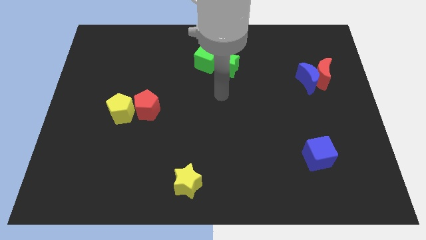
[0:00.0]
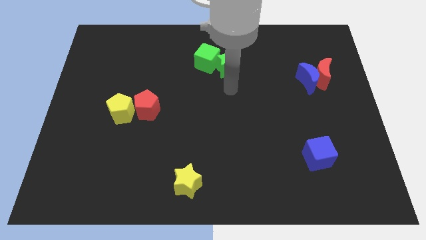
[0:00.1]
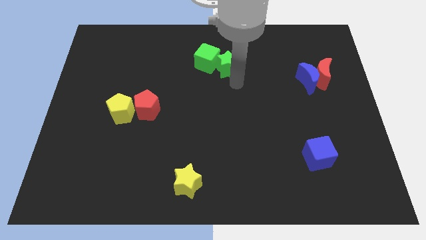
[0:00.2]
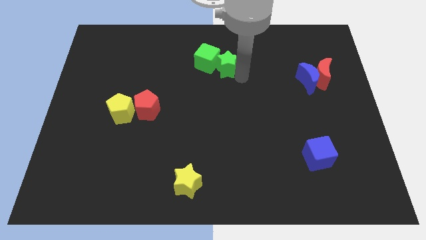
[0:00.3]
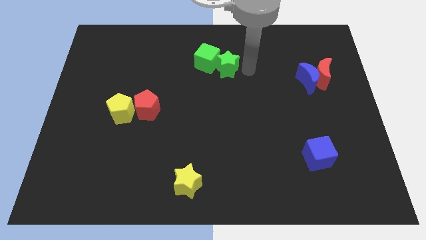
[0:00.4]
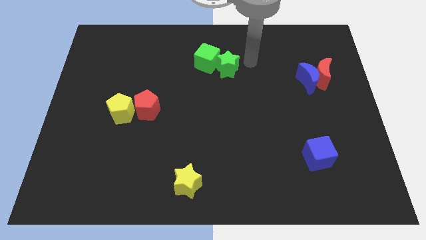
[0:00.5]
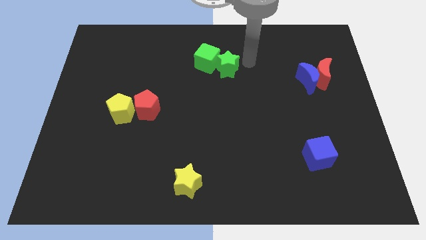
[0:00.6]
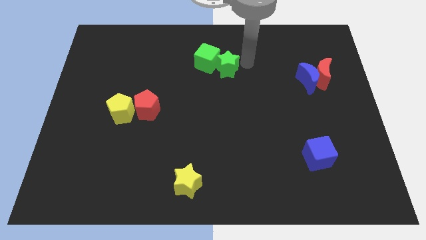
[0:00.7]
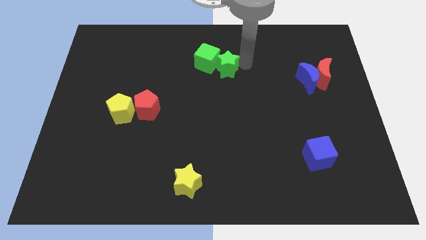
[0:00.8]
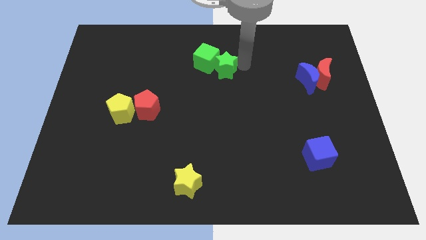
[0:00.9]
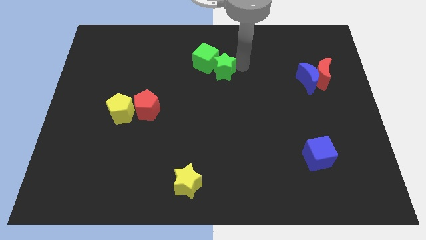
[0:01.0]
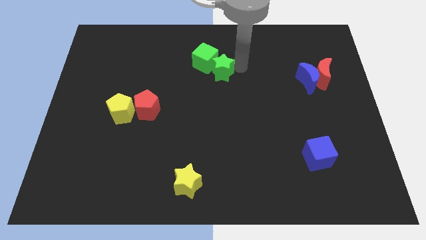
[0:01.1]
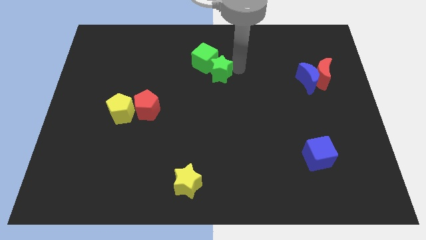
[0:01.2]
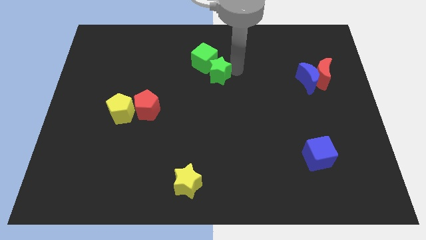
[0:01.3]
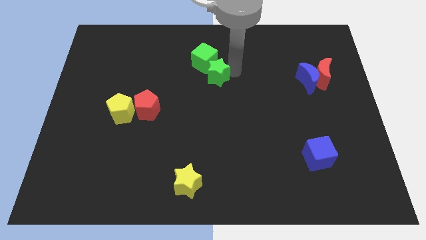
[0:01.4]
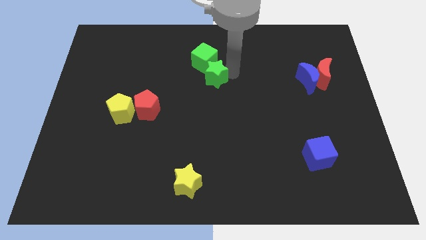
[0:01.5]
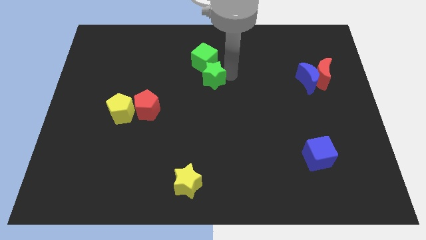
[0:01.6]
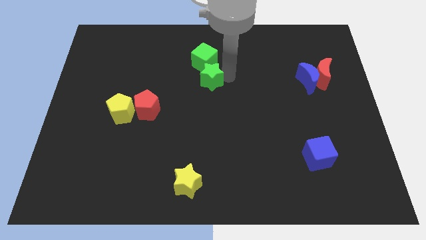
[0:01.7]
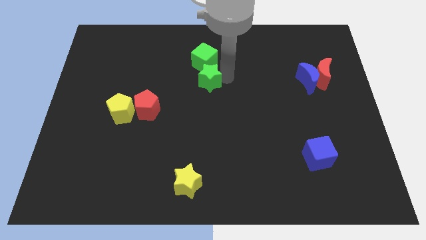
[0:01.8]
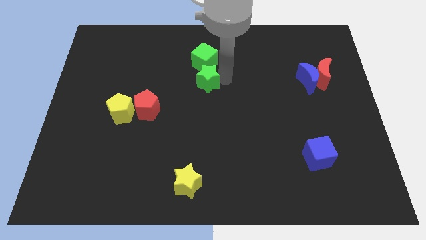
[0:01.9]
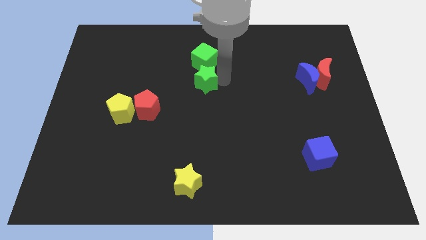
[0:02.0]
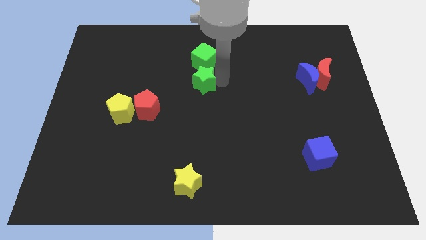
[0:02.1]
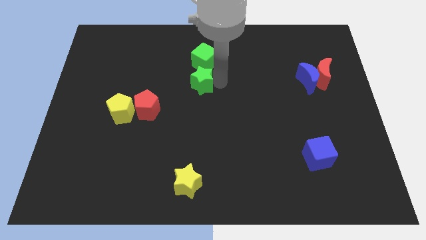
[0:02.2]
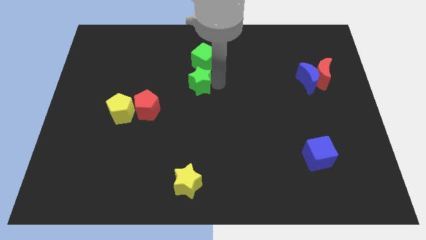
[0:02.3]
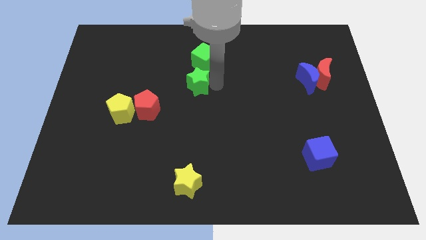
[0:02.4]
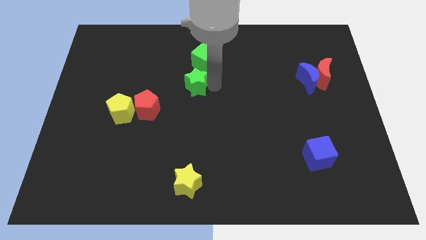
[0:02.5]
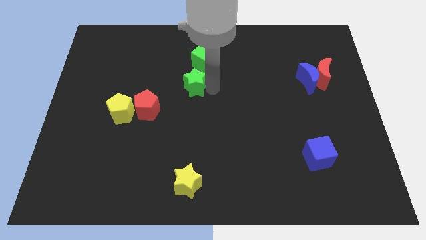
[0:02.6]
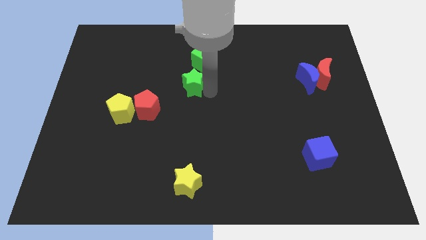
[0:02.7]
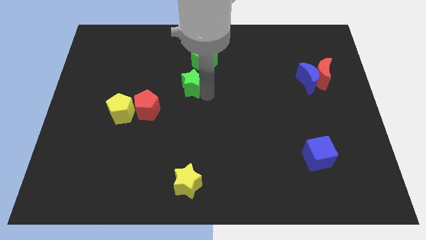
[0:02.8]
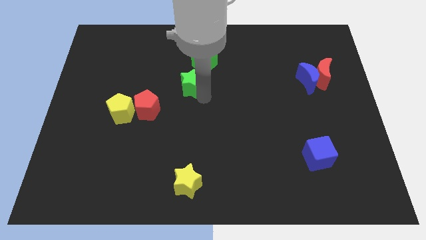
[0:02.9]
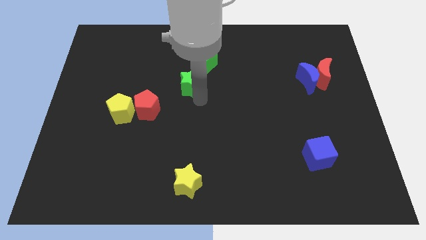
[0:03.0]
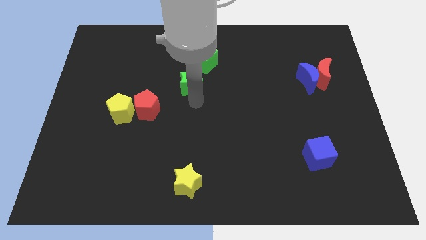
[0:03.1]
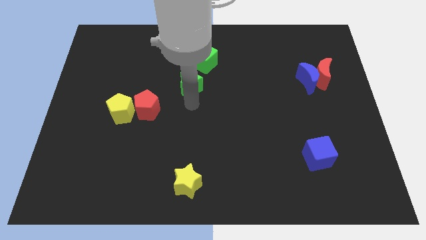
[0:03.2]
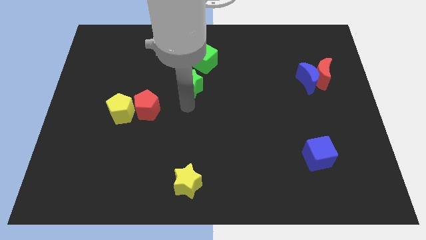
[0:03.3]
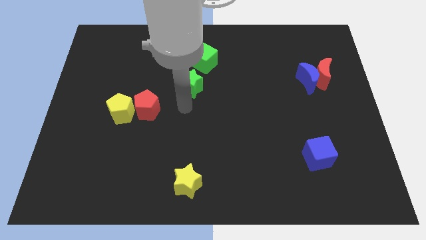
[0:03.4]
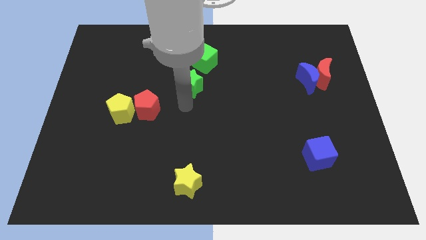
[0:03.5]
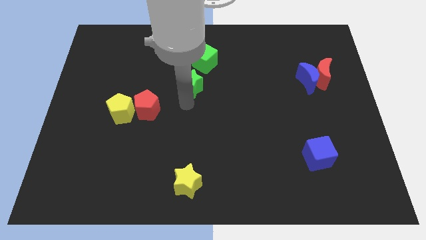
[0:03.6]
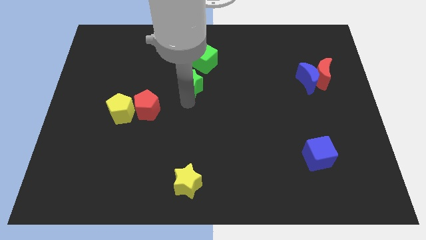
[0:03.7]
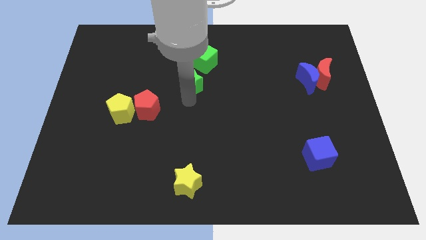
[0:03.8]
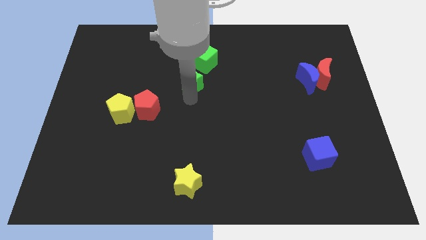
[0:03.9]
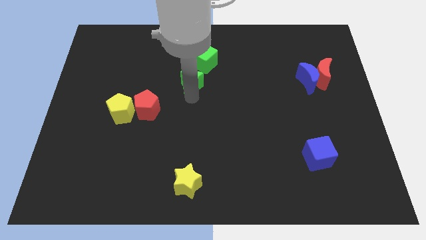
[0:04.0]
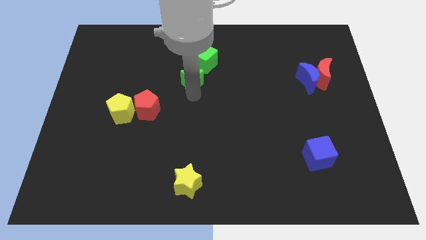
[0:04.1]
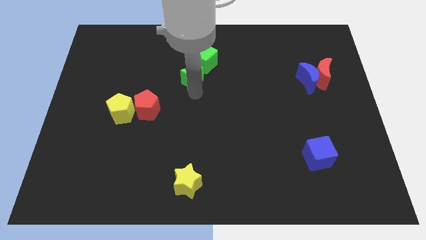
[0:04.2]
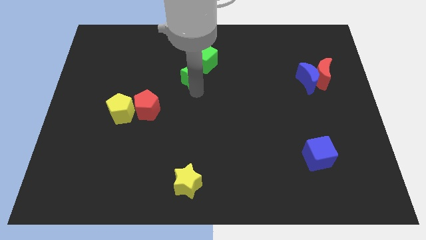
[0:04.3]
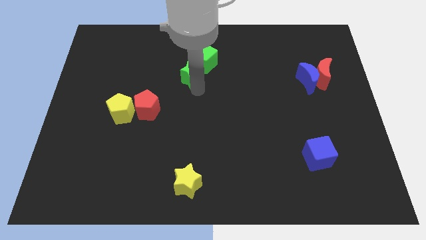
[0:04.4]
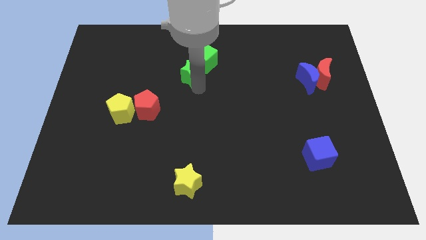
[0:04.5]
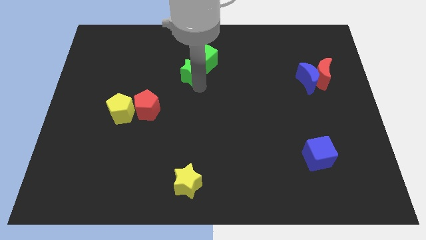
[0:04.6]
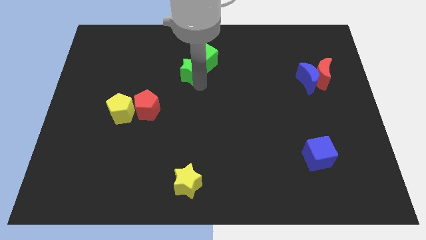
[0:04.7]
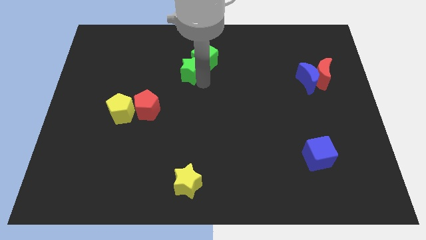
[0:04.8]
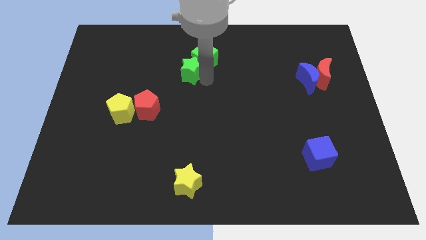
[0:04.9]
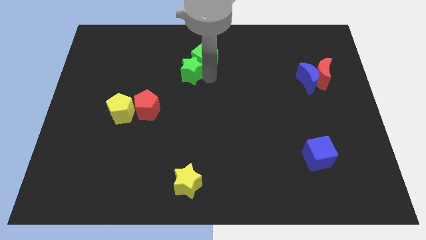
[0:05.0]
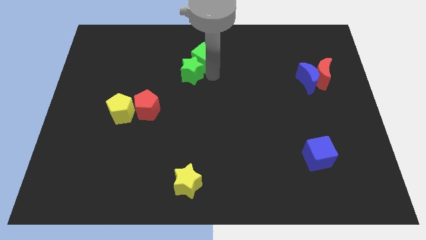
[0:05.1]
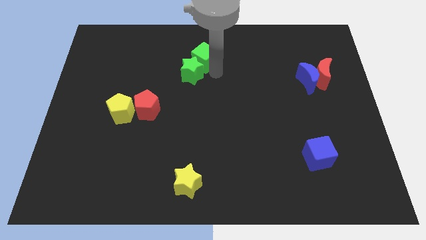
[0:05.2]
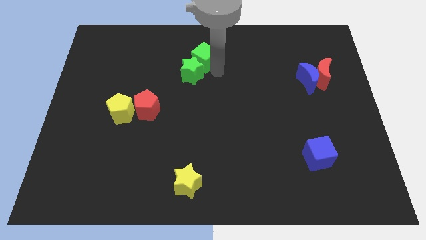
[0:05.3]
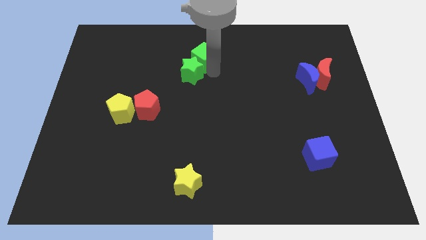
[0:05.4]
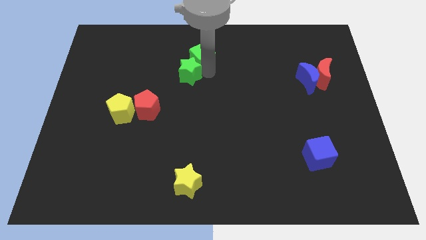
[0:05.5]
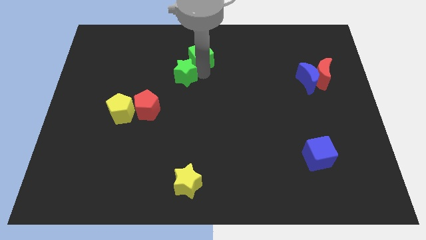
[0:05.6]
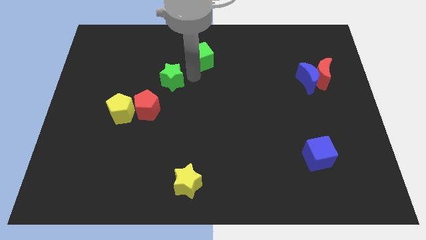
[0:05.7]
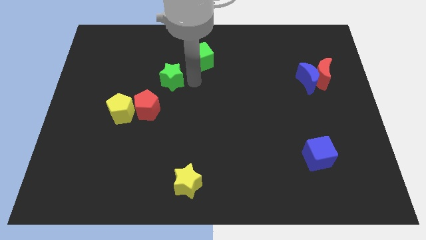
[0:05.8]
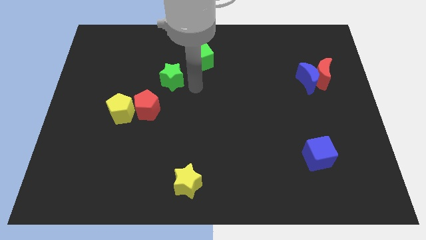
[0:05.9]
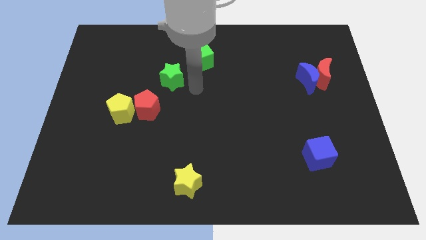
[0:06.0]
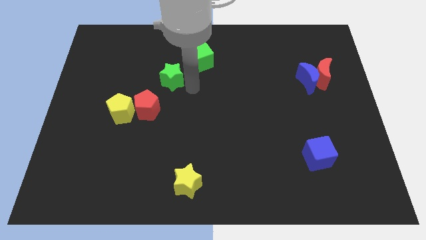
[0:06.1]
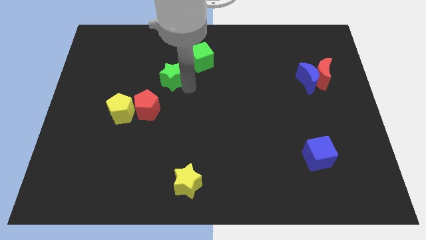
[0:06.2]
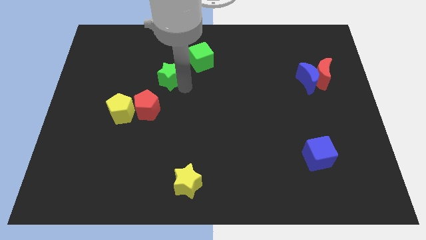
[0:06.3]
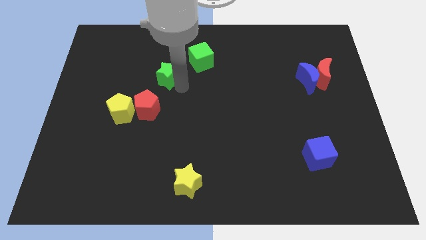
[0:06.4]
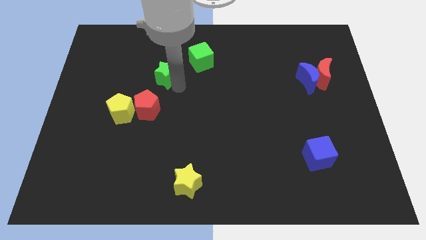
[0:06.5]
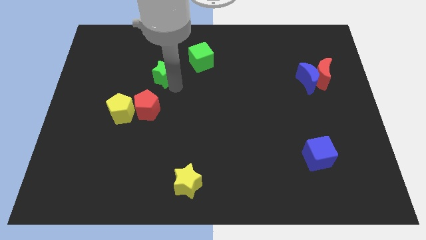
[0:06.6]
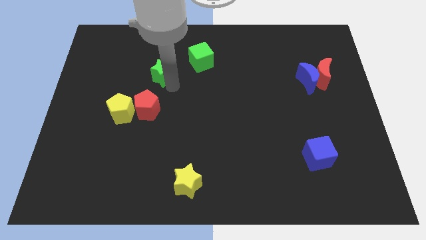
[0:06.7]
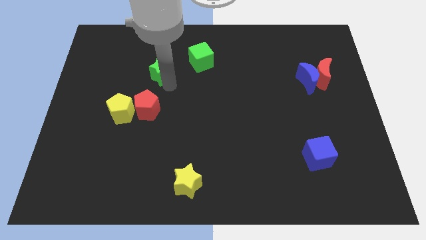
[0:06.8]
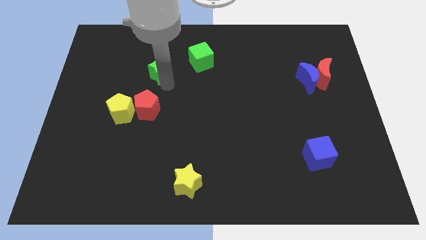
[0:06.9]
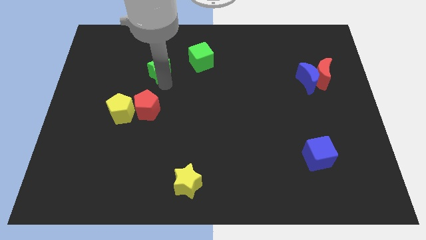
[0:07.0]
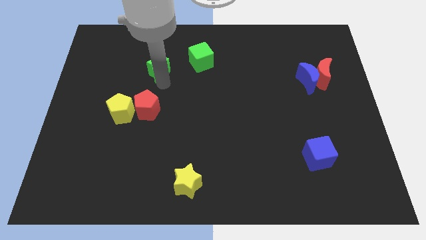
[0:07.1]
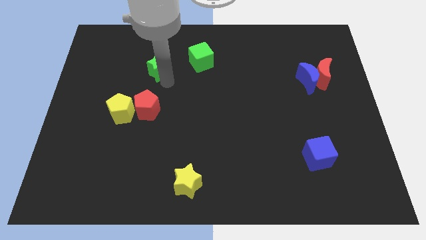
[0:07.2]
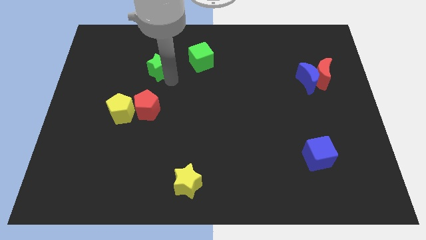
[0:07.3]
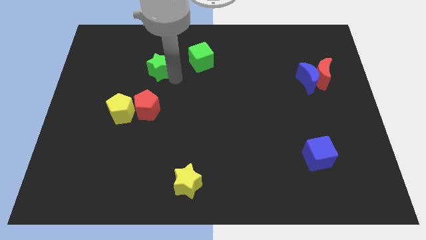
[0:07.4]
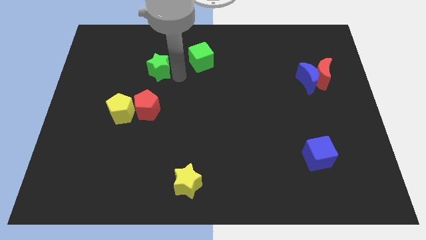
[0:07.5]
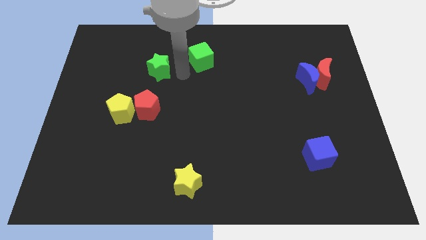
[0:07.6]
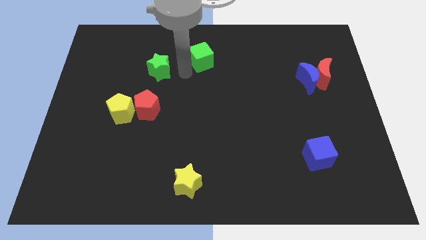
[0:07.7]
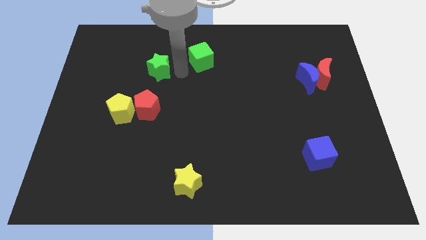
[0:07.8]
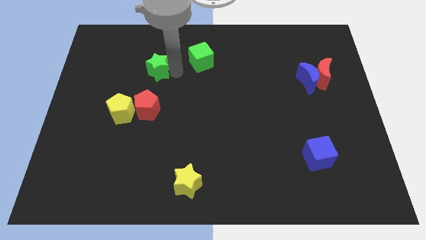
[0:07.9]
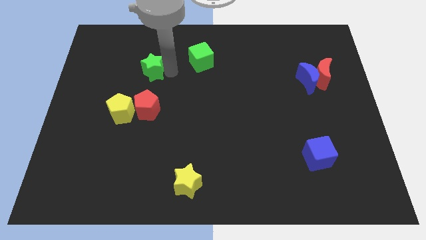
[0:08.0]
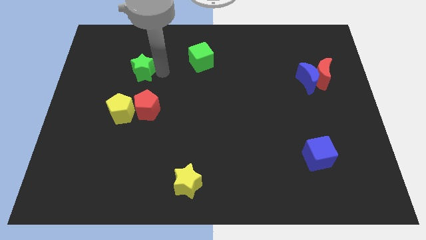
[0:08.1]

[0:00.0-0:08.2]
move the green star left

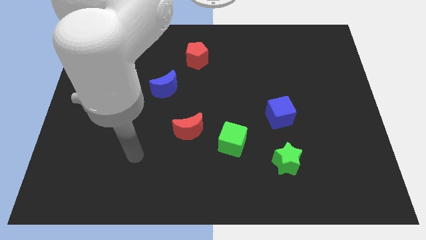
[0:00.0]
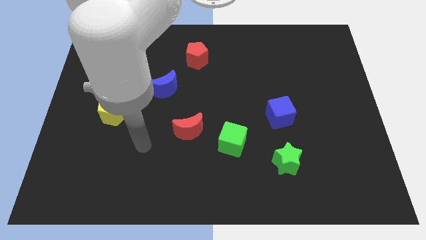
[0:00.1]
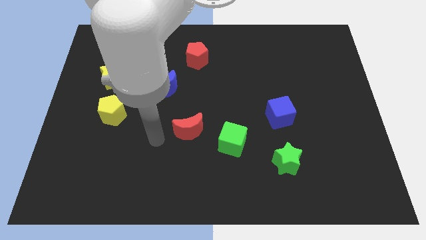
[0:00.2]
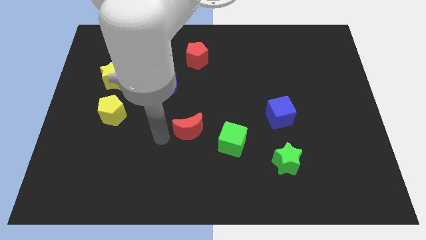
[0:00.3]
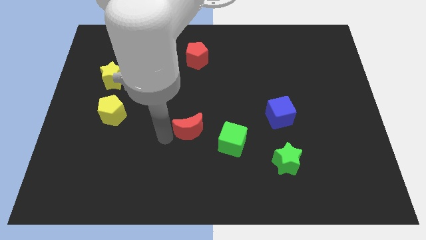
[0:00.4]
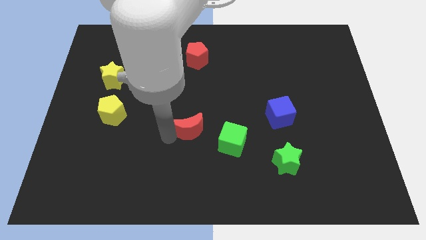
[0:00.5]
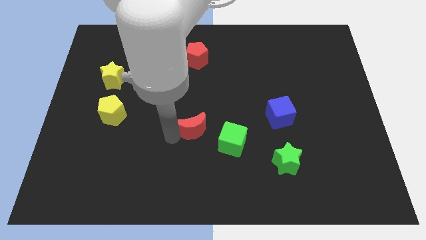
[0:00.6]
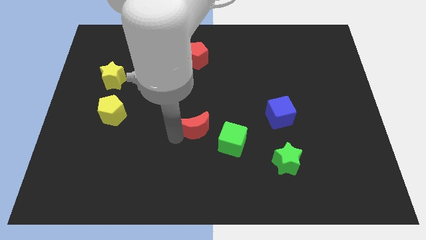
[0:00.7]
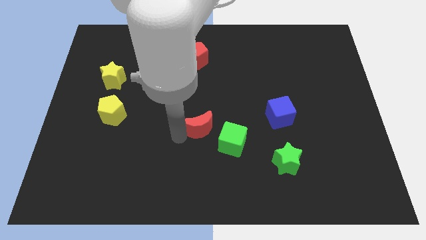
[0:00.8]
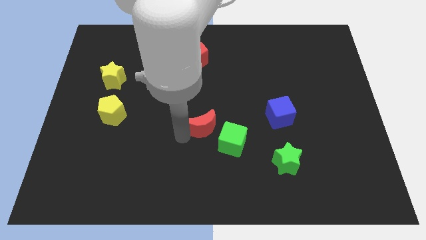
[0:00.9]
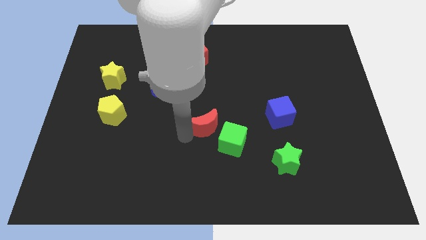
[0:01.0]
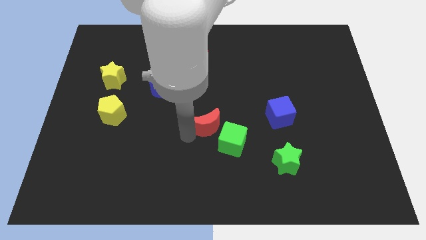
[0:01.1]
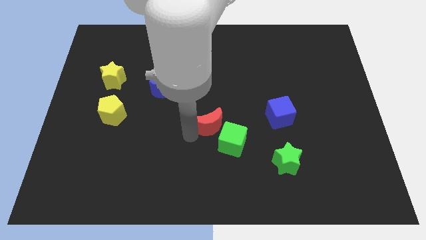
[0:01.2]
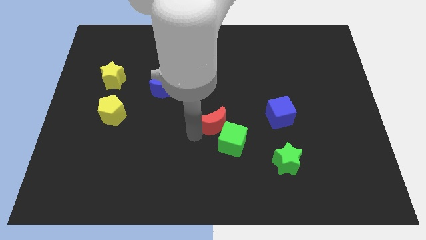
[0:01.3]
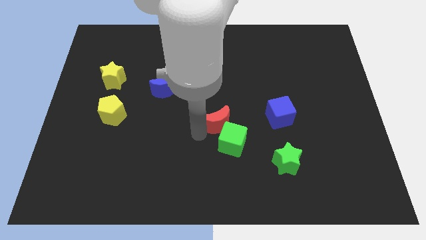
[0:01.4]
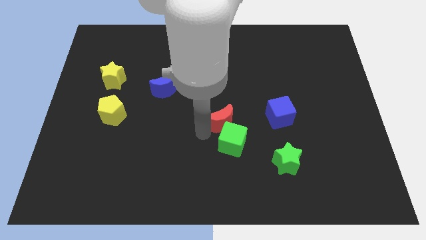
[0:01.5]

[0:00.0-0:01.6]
slightly slide the red moon to the right
